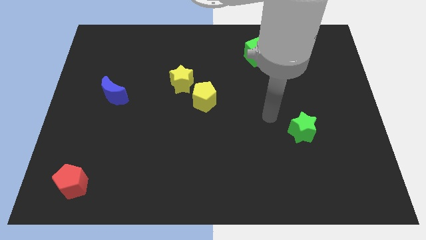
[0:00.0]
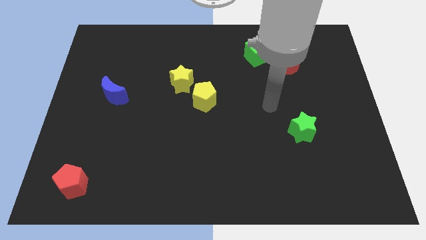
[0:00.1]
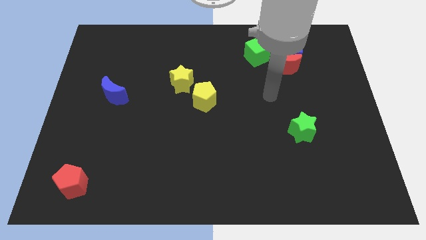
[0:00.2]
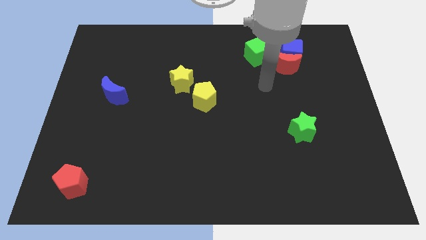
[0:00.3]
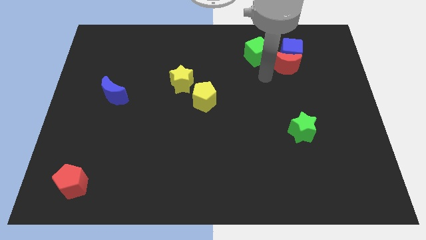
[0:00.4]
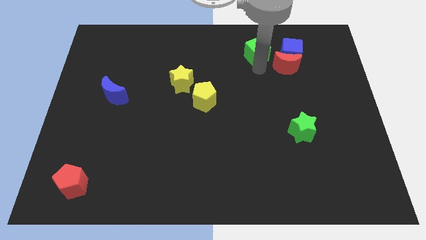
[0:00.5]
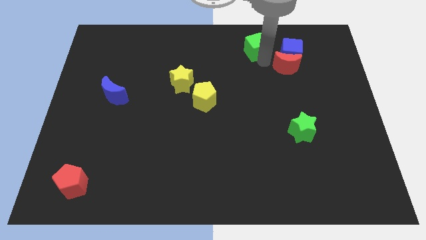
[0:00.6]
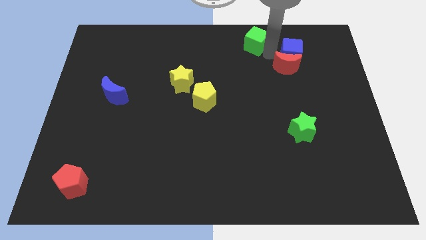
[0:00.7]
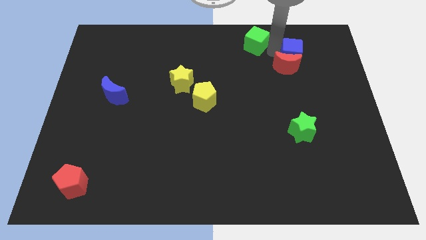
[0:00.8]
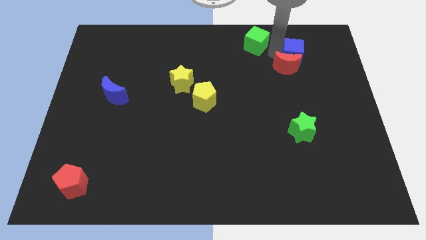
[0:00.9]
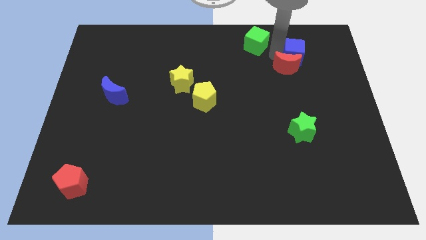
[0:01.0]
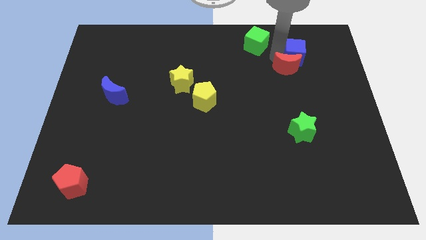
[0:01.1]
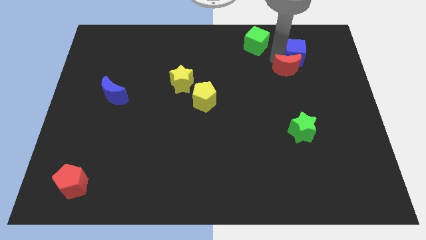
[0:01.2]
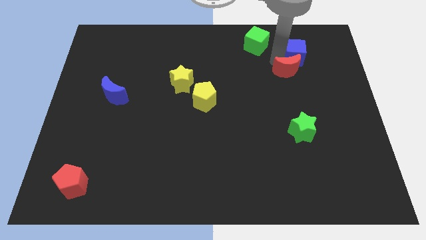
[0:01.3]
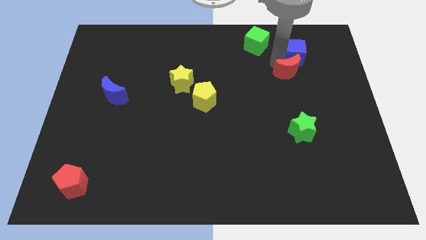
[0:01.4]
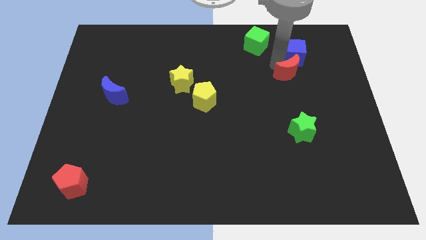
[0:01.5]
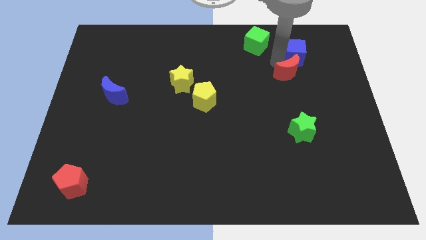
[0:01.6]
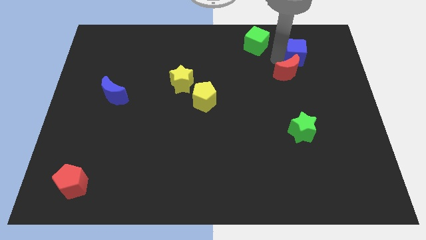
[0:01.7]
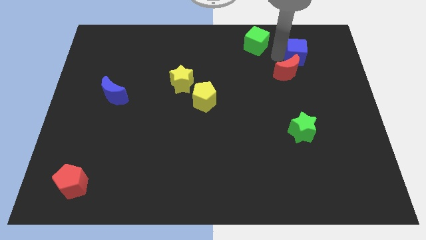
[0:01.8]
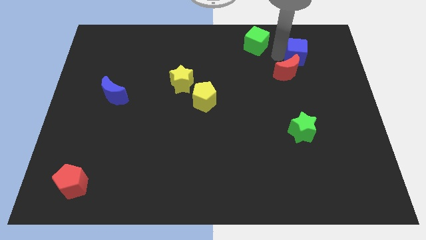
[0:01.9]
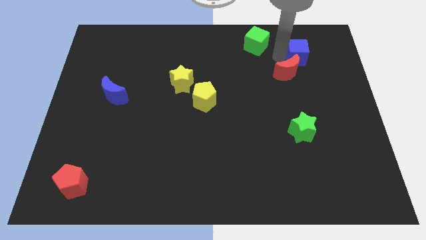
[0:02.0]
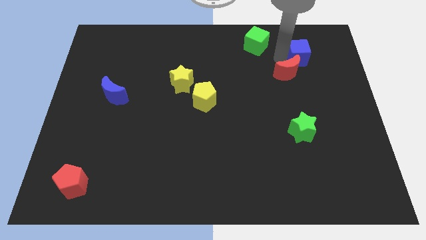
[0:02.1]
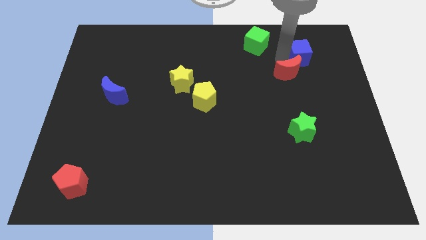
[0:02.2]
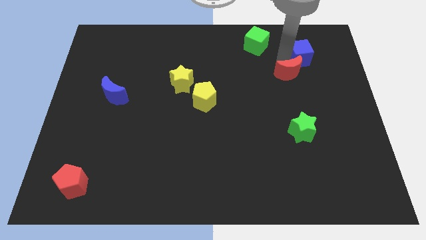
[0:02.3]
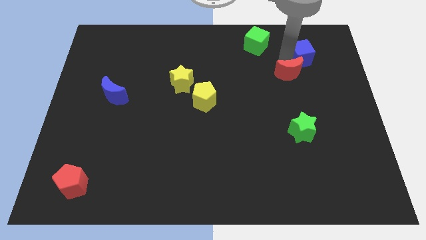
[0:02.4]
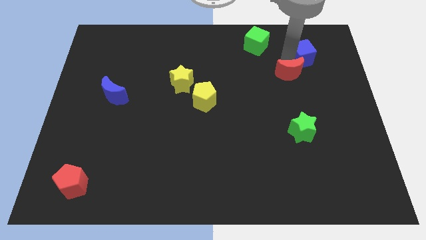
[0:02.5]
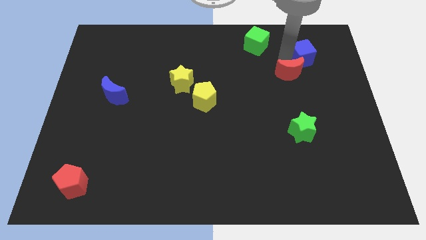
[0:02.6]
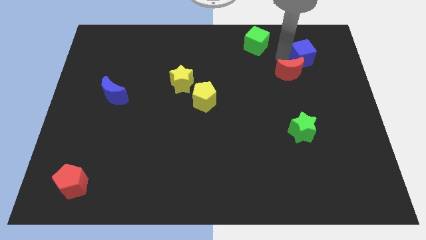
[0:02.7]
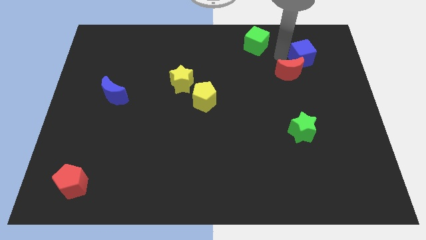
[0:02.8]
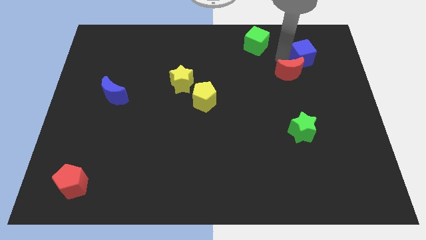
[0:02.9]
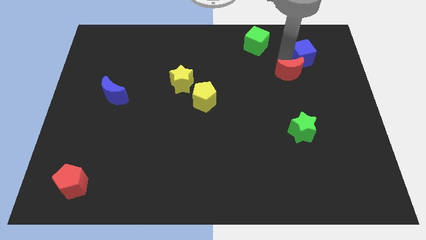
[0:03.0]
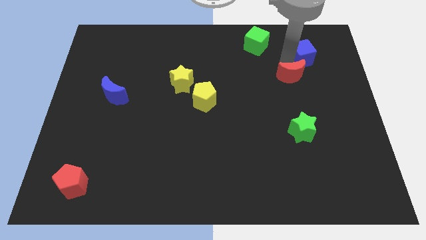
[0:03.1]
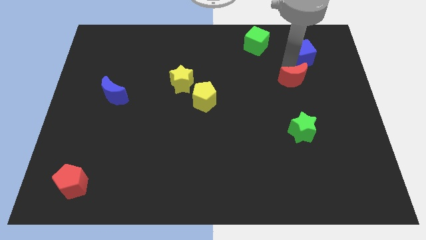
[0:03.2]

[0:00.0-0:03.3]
move the red moon away from the blue cube and green cube

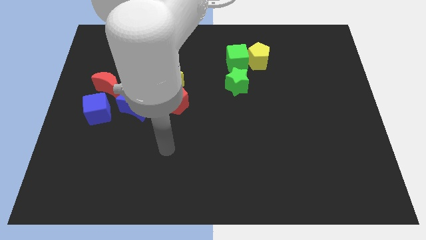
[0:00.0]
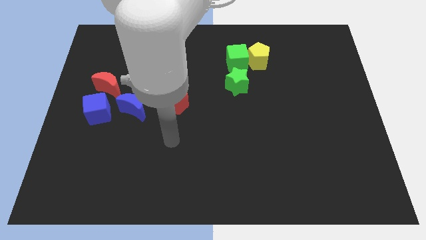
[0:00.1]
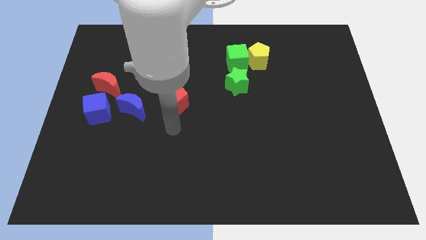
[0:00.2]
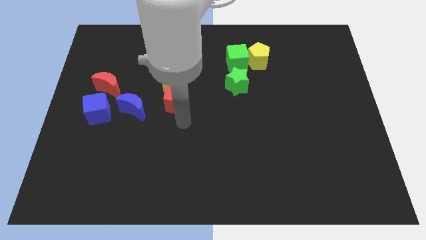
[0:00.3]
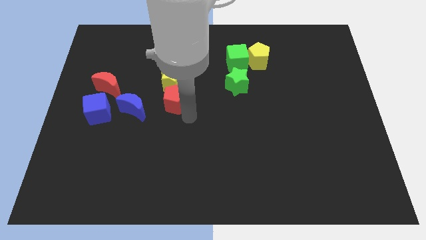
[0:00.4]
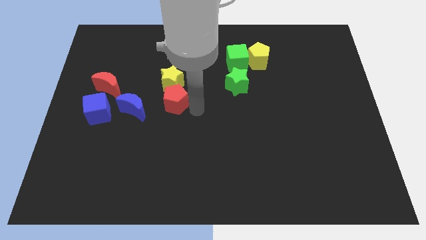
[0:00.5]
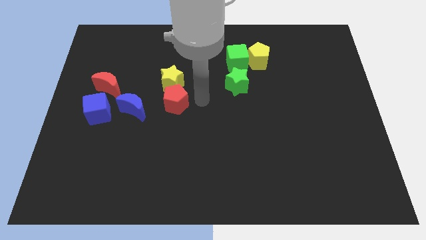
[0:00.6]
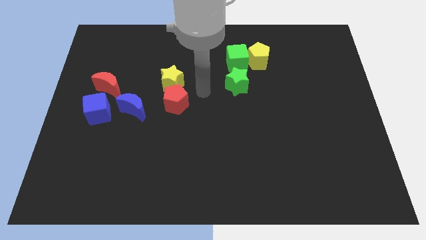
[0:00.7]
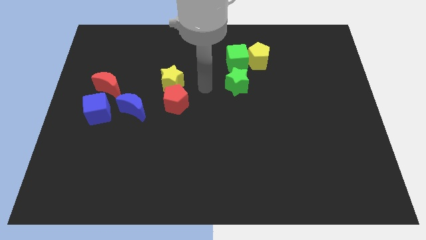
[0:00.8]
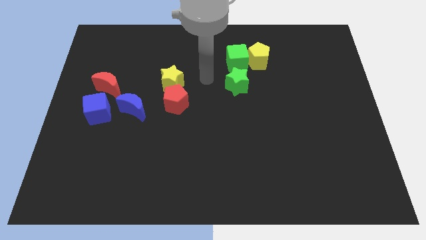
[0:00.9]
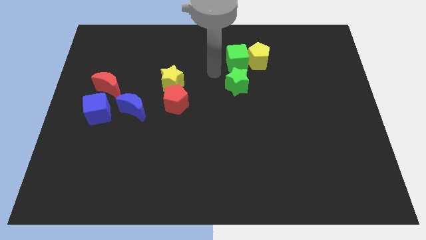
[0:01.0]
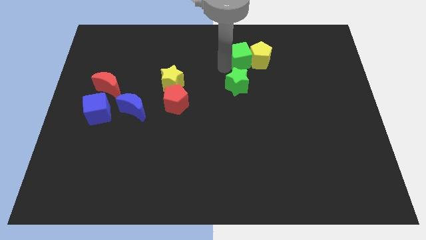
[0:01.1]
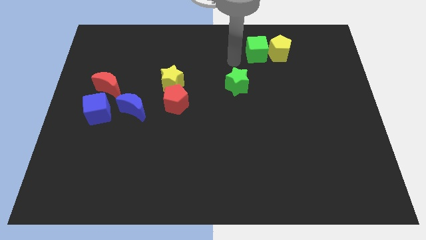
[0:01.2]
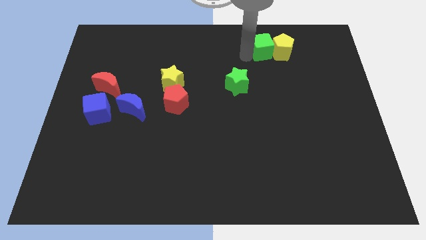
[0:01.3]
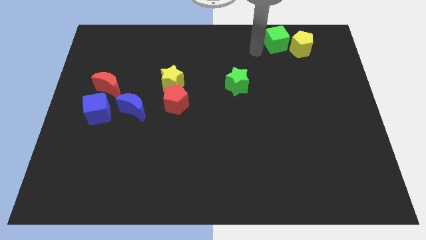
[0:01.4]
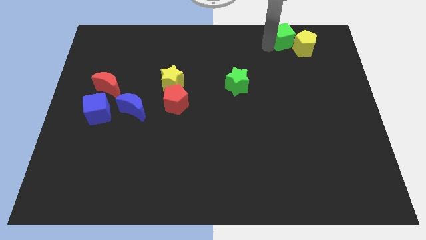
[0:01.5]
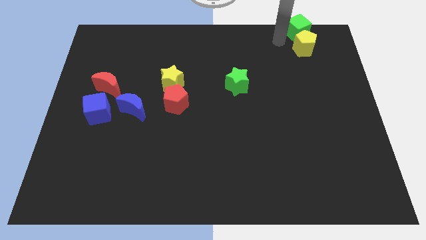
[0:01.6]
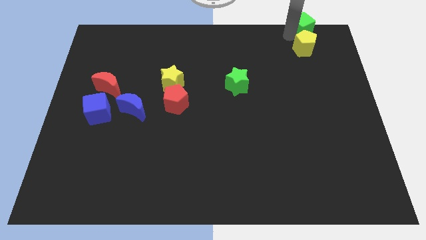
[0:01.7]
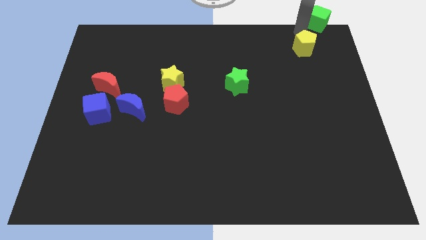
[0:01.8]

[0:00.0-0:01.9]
separate the yellow pentagon from the green cube

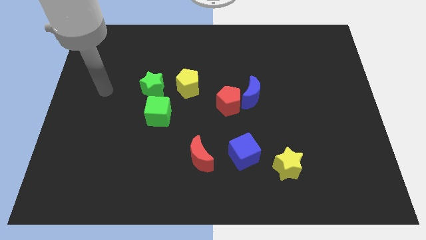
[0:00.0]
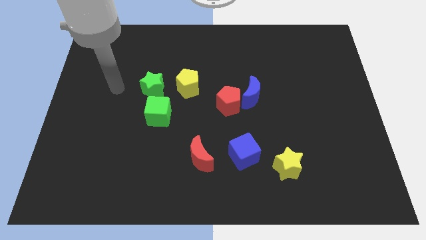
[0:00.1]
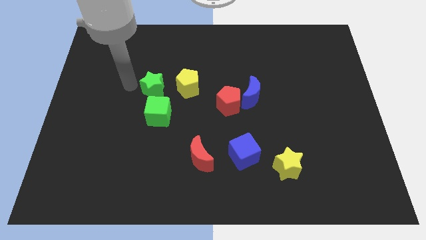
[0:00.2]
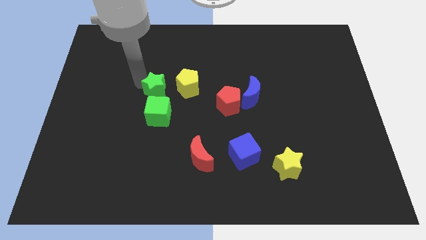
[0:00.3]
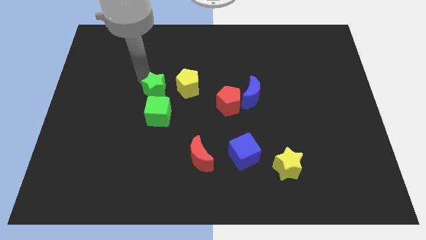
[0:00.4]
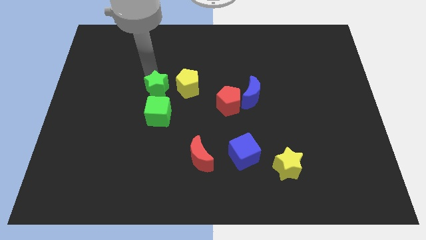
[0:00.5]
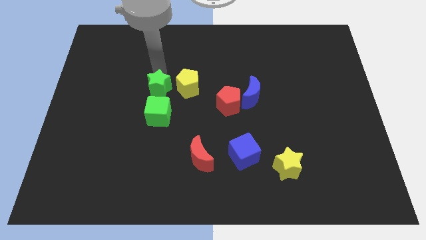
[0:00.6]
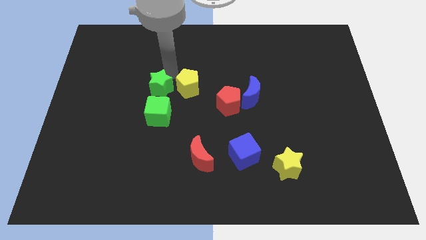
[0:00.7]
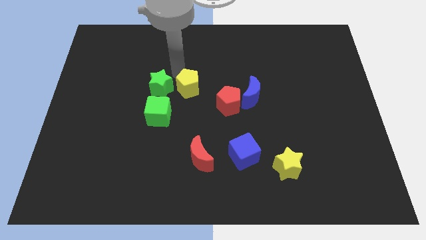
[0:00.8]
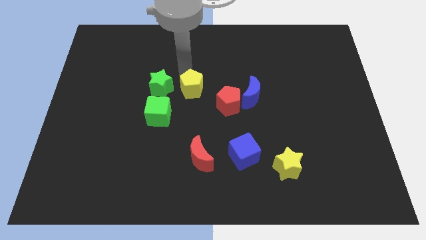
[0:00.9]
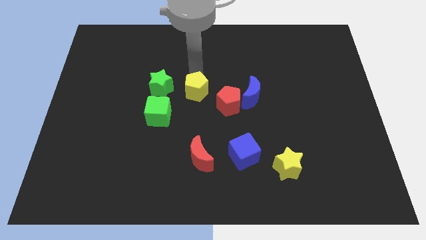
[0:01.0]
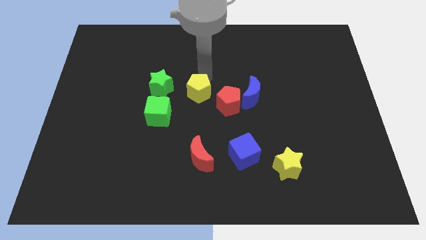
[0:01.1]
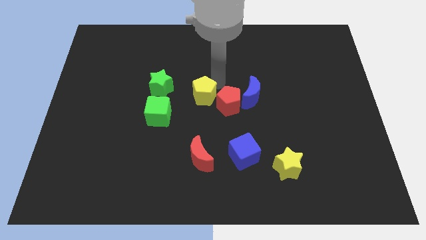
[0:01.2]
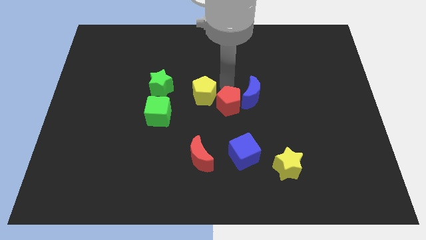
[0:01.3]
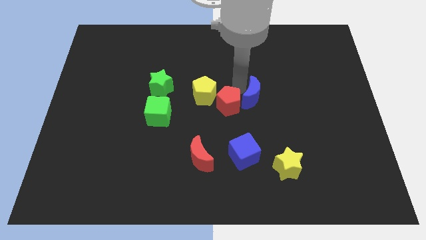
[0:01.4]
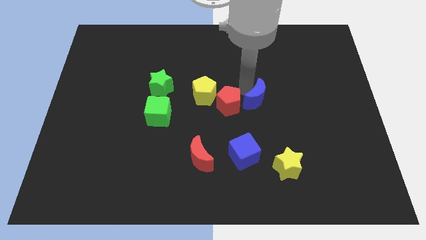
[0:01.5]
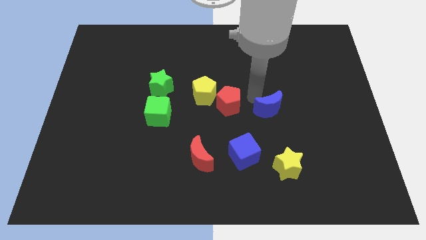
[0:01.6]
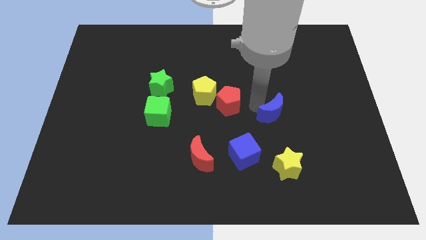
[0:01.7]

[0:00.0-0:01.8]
pull the red pentagon apart from the blue moon

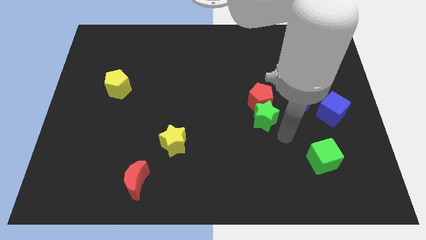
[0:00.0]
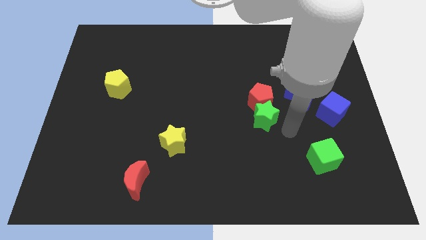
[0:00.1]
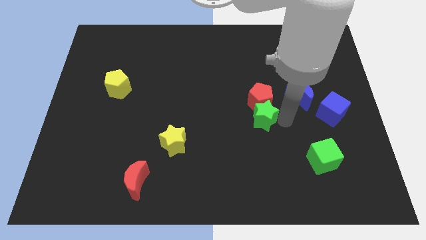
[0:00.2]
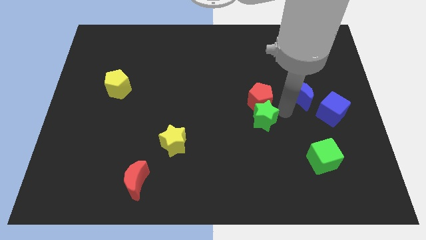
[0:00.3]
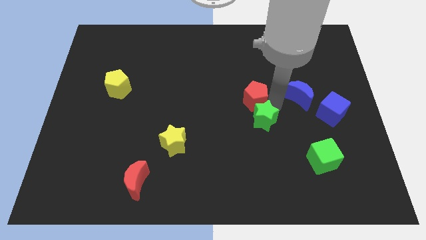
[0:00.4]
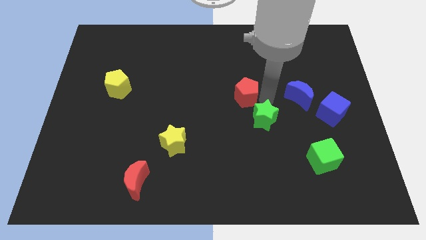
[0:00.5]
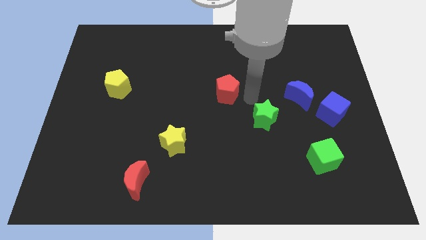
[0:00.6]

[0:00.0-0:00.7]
separate the green star from the red pentagon

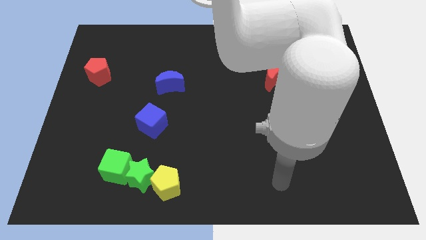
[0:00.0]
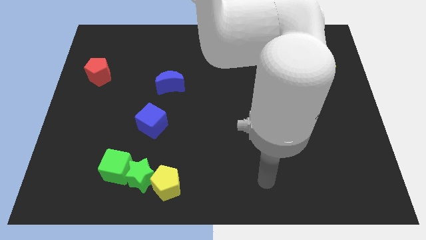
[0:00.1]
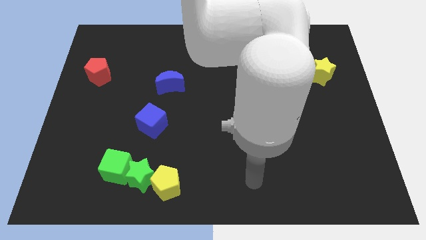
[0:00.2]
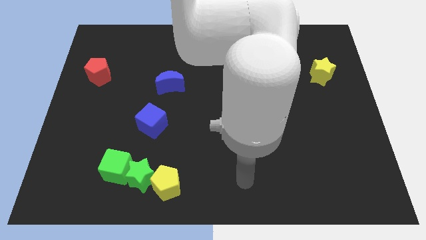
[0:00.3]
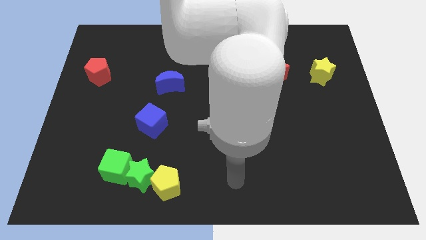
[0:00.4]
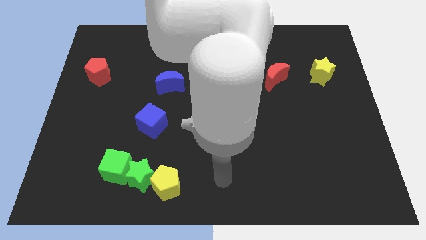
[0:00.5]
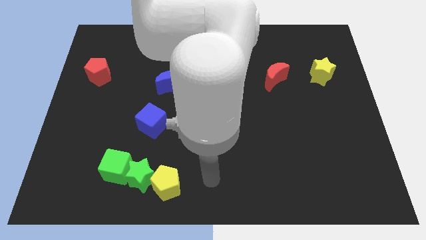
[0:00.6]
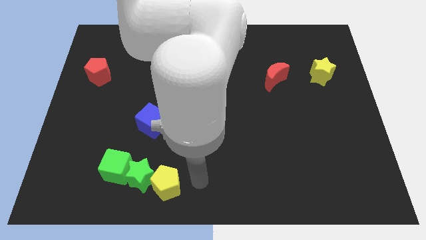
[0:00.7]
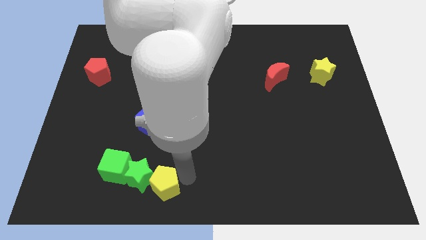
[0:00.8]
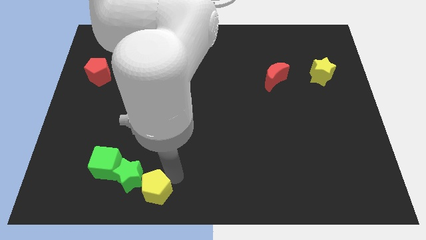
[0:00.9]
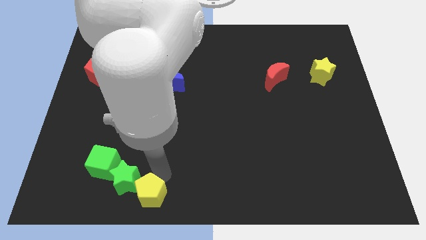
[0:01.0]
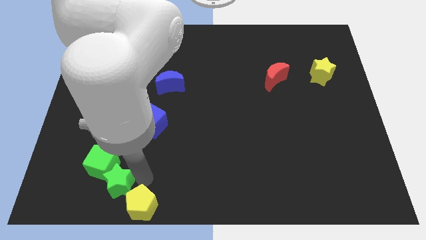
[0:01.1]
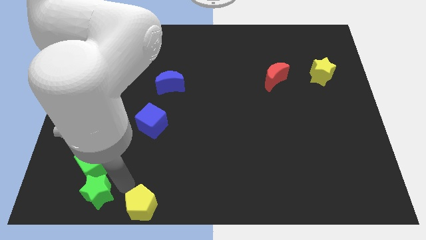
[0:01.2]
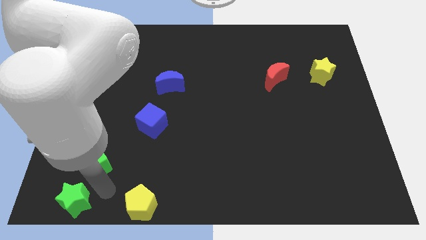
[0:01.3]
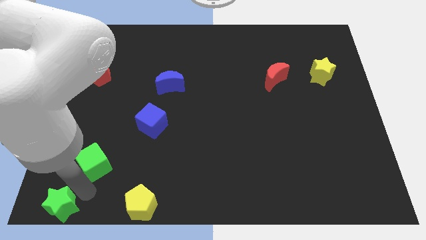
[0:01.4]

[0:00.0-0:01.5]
move the green cube away from the green star
